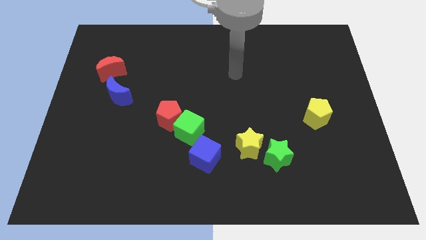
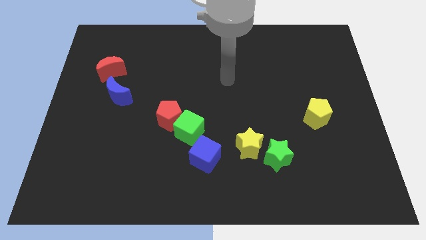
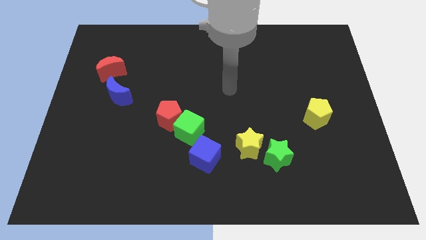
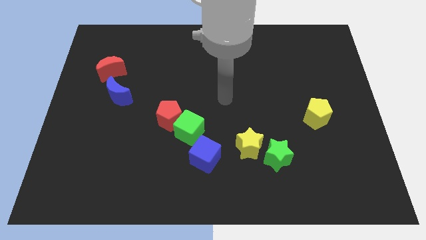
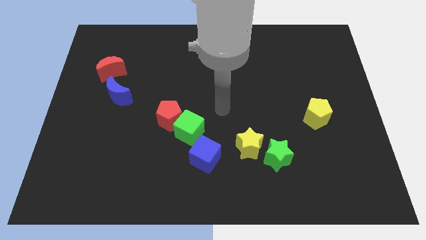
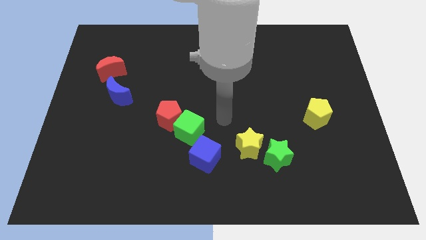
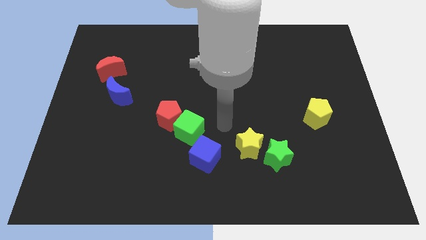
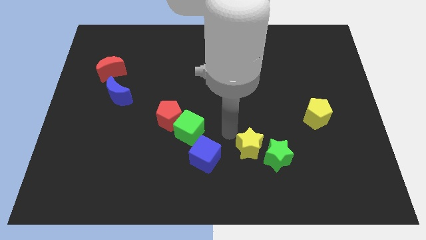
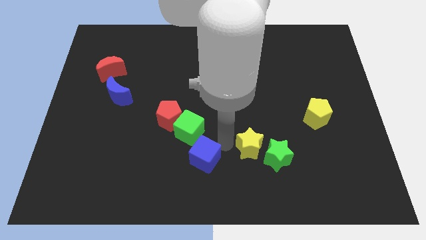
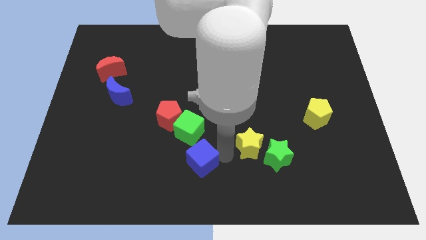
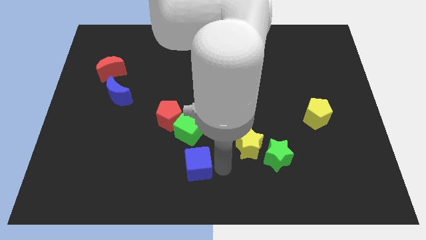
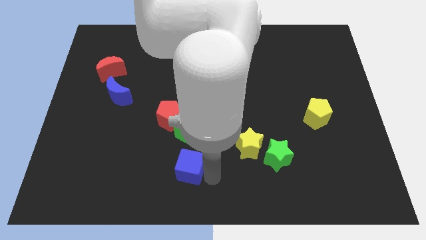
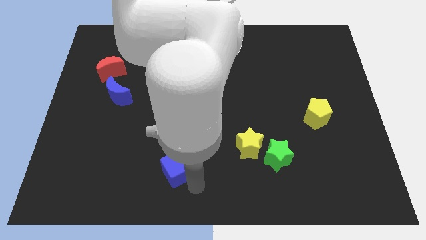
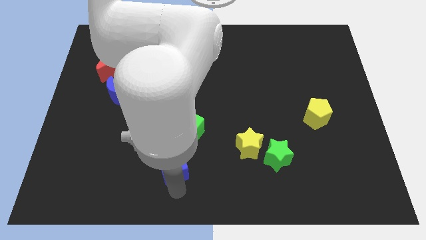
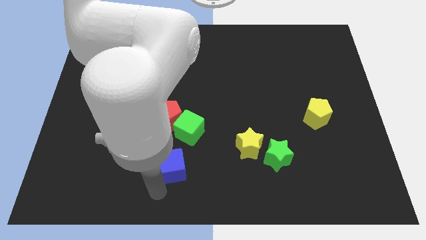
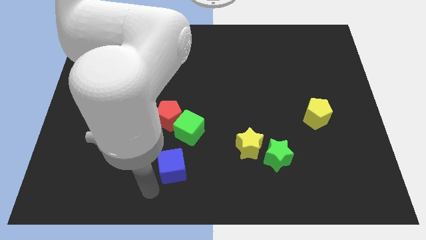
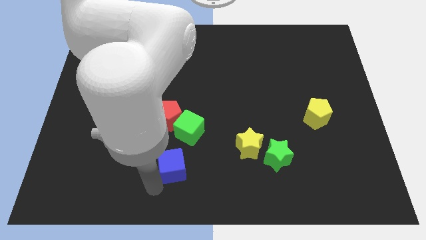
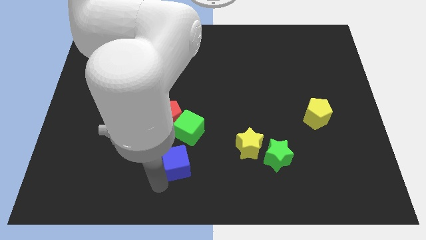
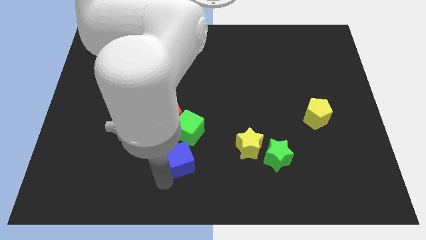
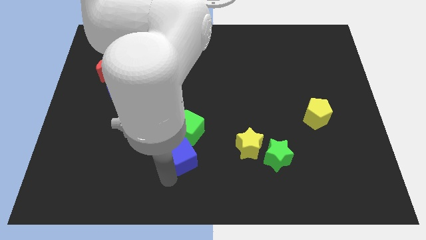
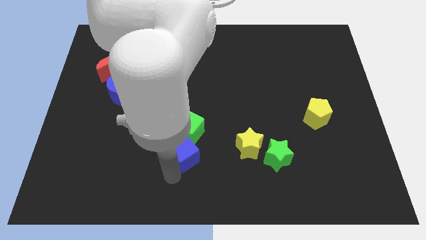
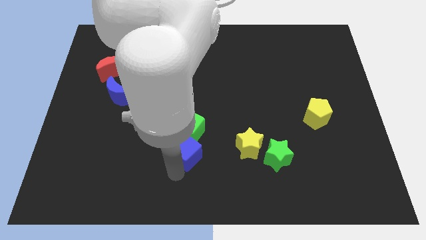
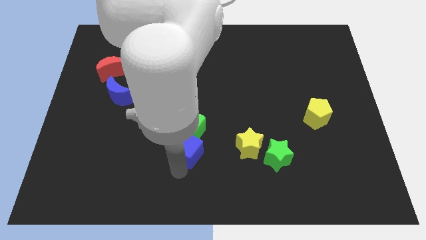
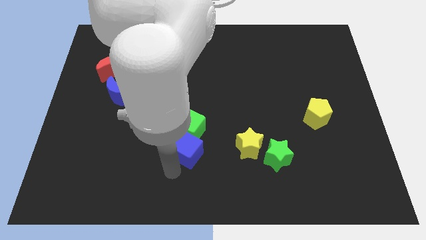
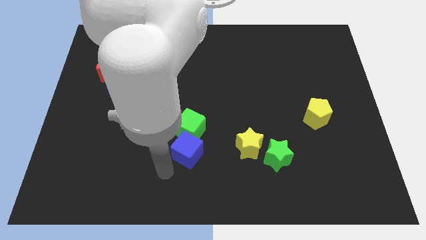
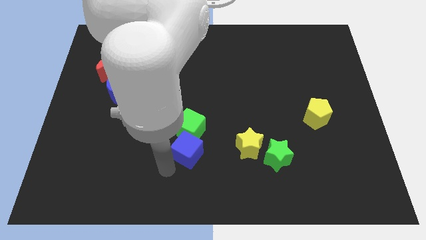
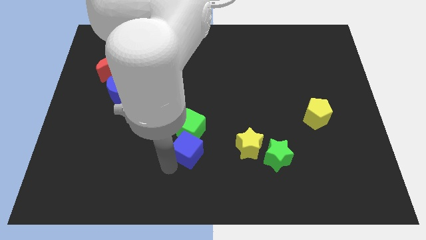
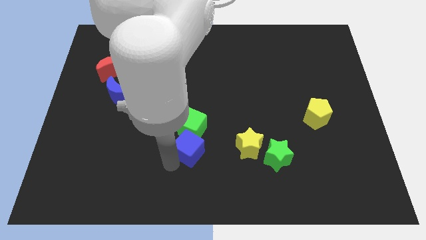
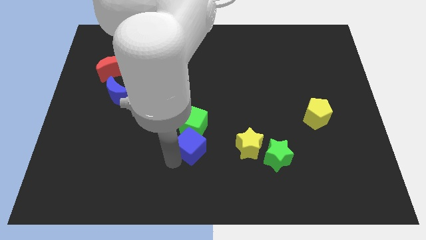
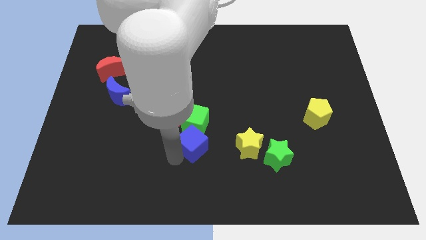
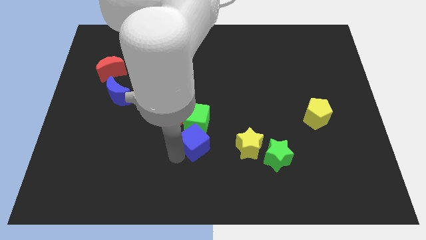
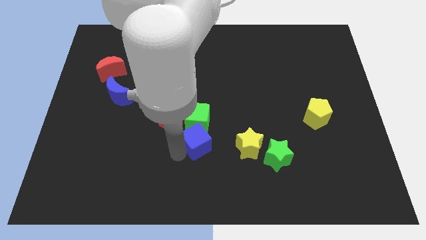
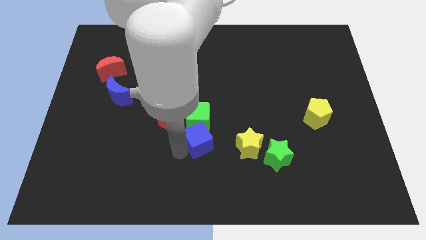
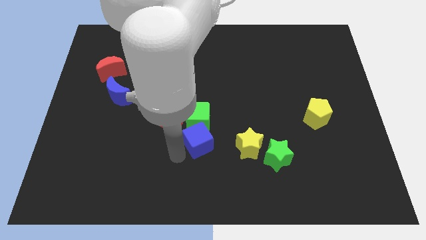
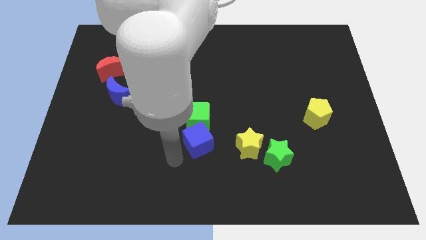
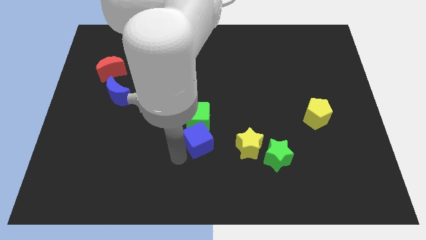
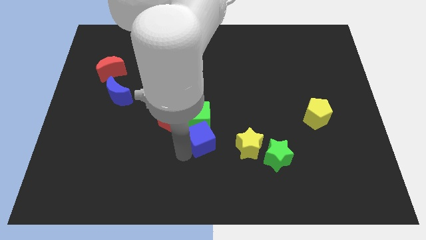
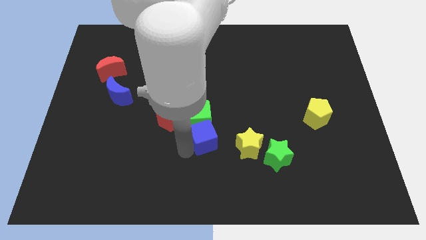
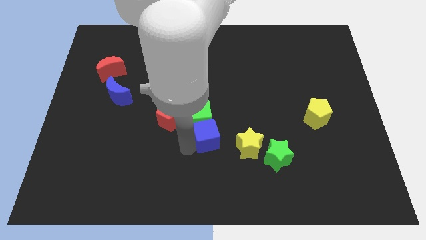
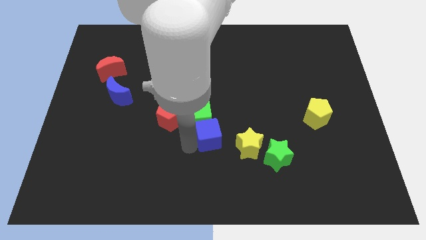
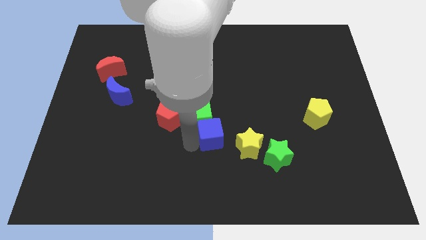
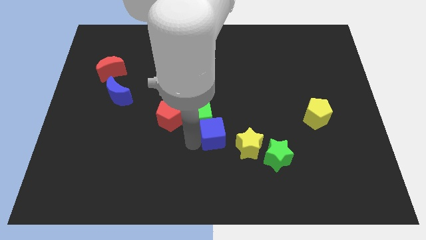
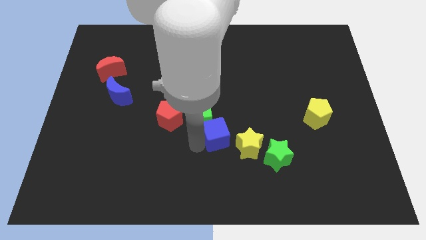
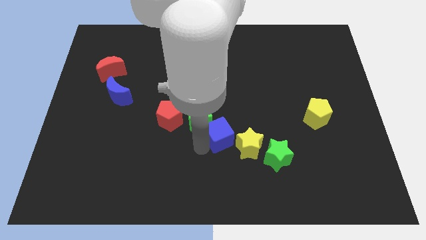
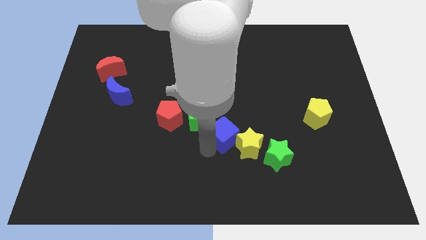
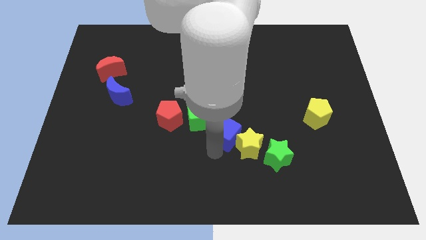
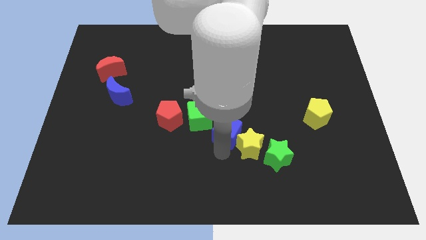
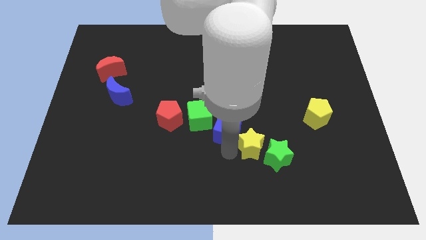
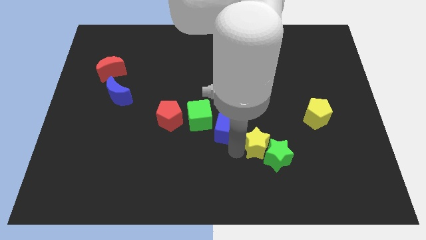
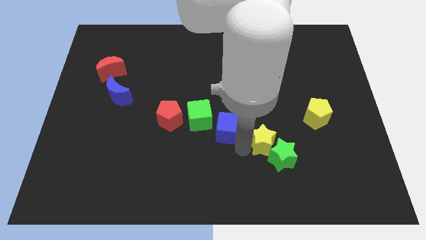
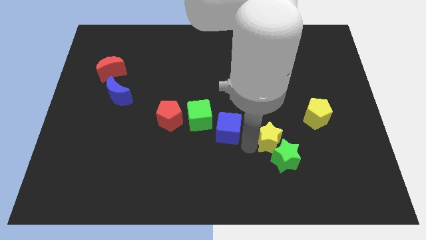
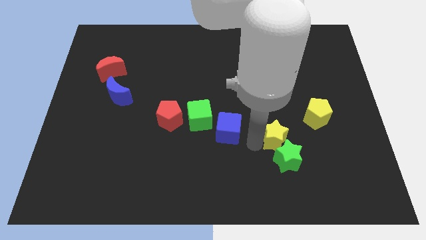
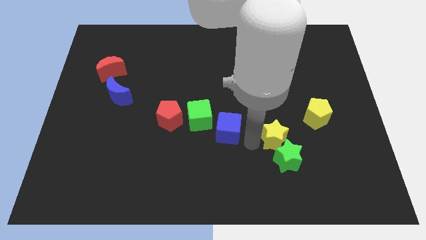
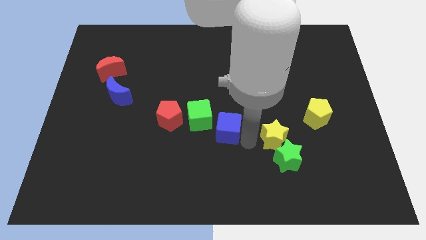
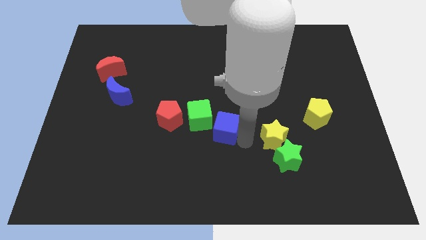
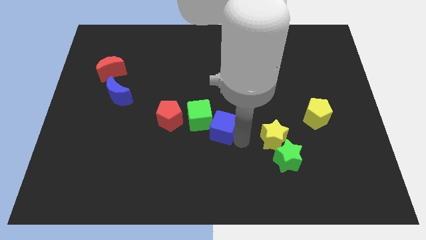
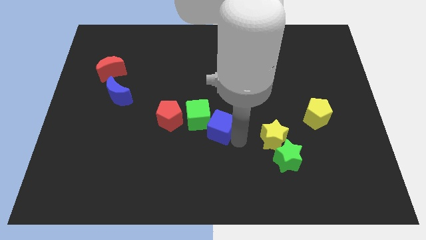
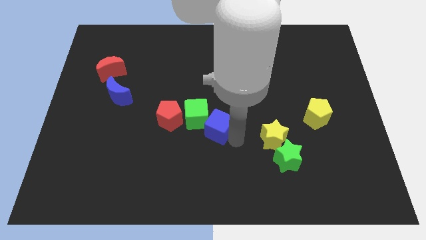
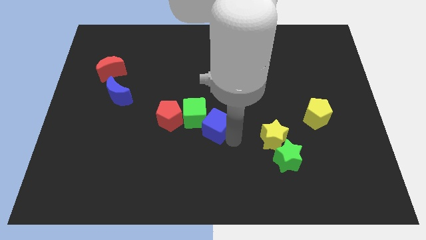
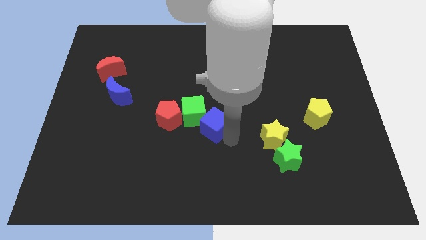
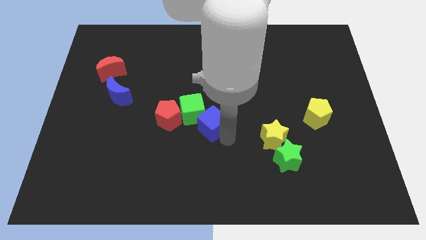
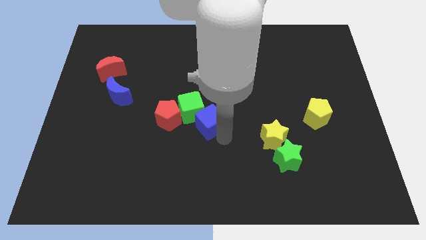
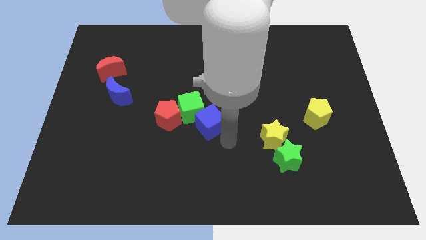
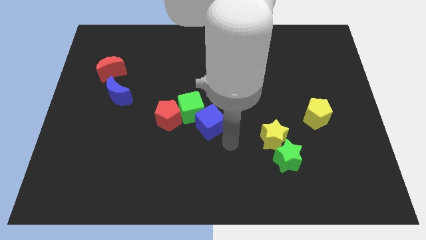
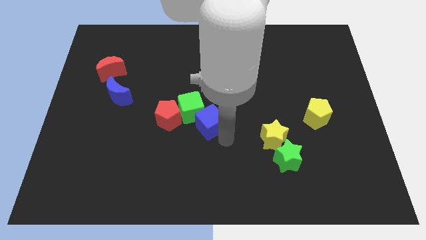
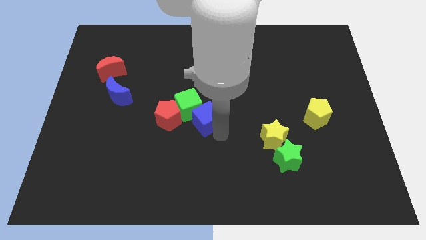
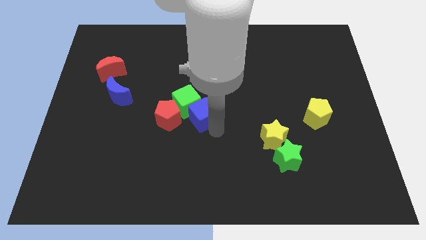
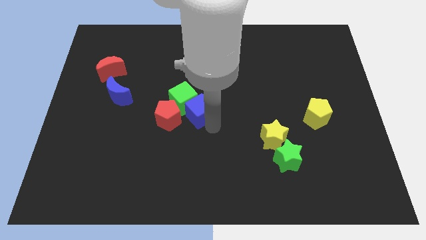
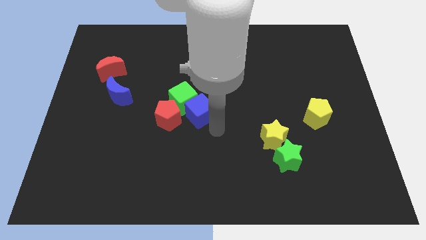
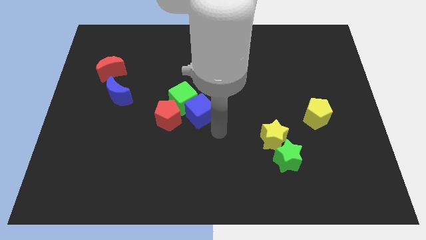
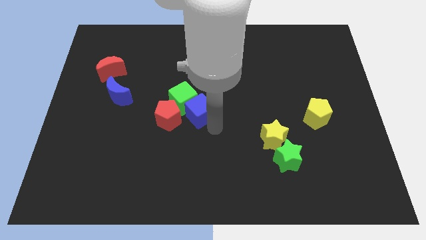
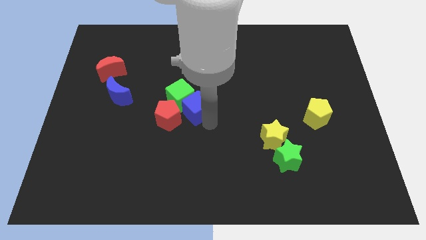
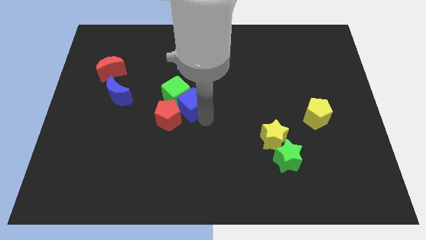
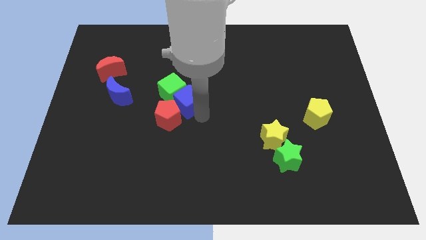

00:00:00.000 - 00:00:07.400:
move the blue cube to the top side of the red pentagon

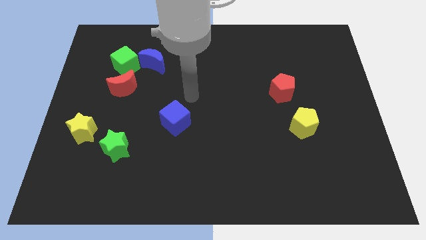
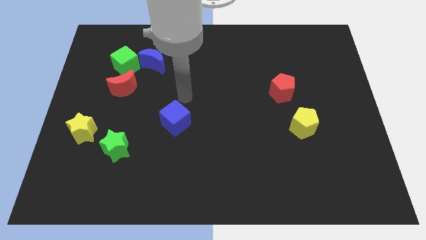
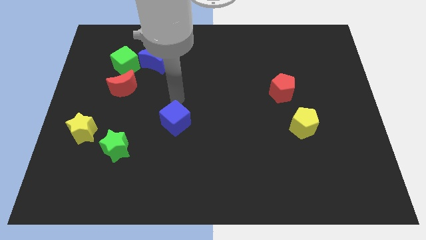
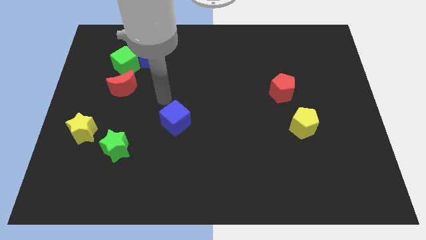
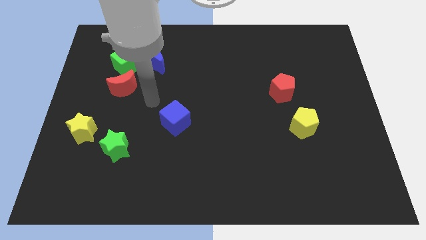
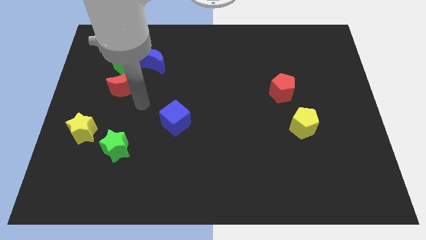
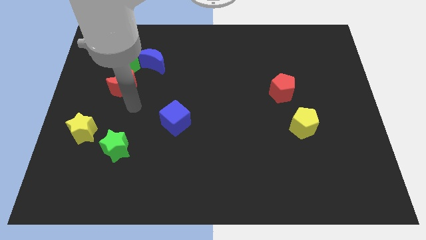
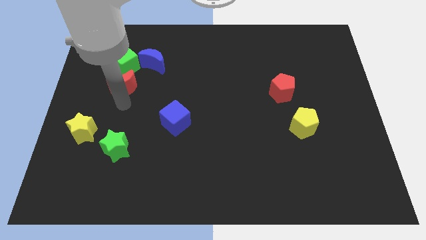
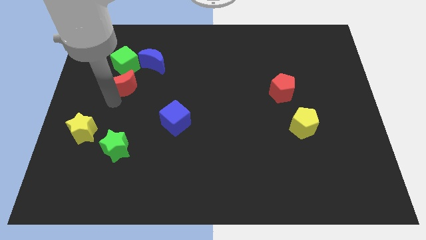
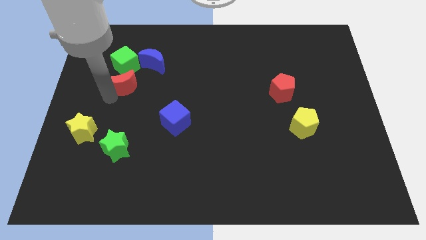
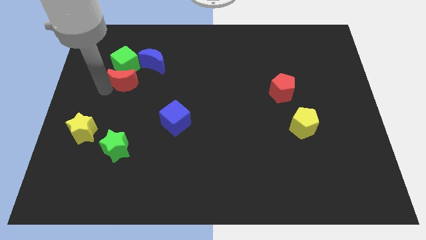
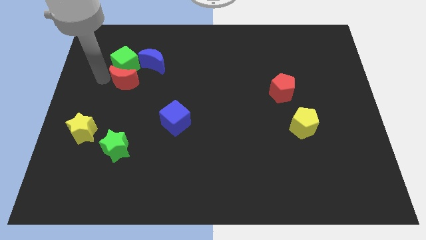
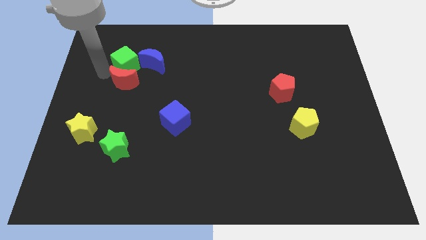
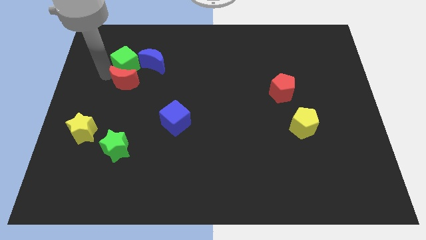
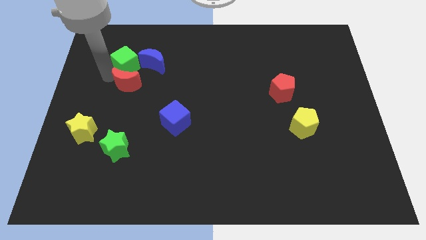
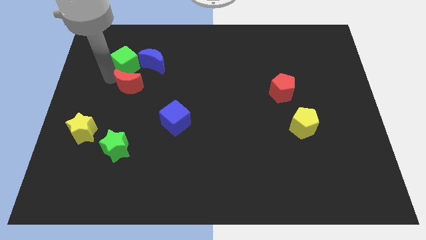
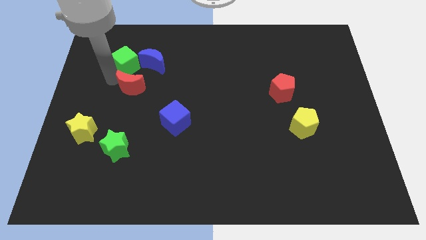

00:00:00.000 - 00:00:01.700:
put the red moon to the bottom side of the blue moon
